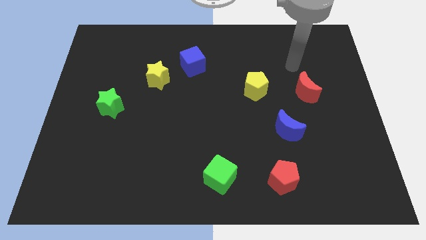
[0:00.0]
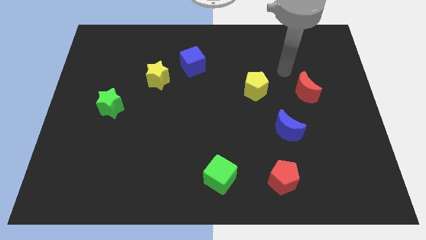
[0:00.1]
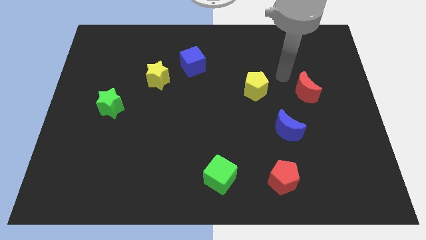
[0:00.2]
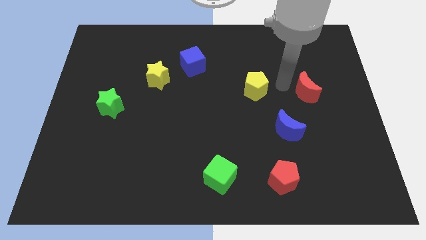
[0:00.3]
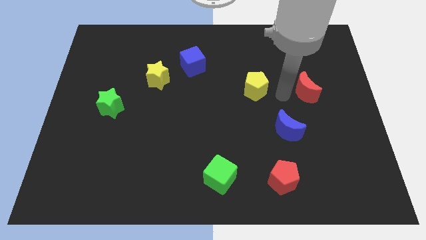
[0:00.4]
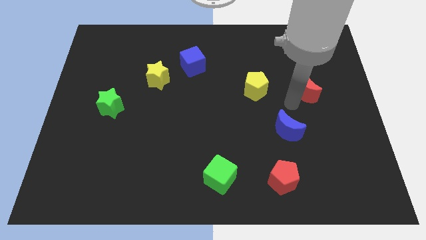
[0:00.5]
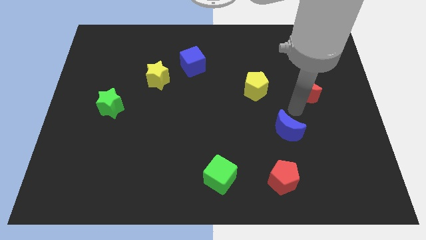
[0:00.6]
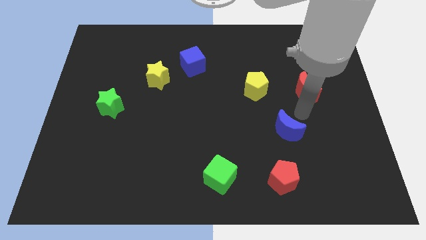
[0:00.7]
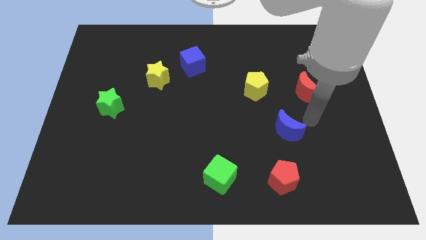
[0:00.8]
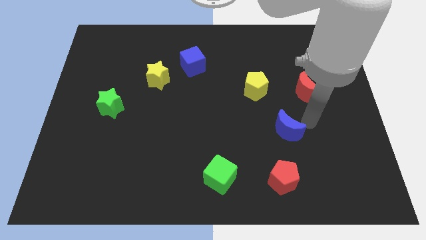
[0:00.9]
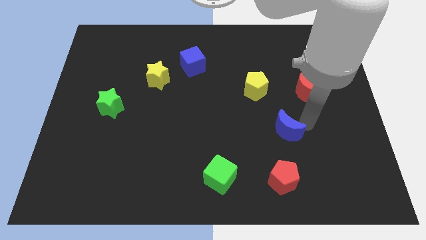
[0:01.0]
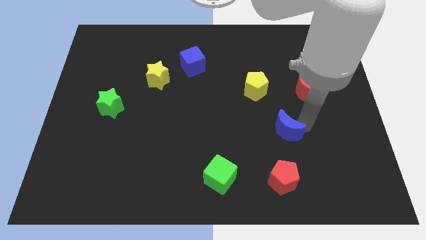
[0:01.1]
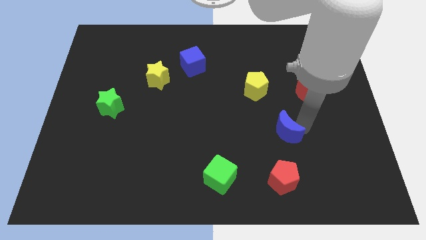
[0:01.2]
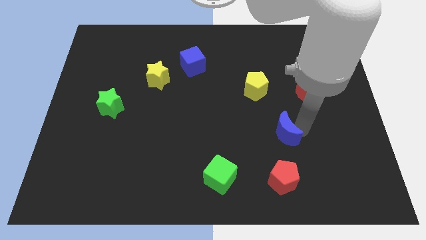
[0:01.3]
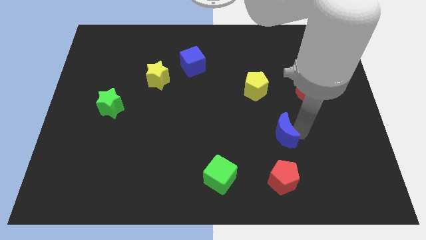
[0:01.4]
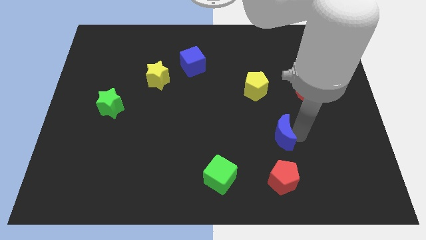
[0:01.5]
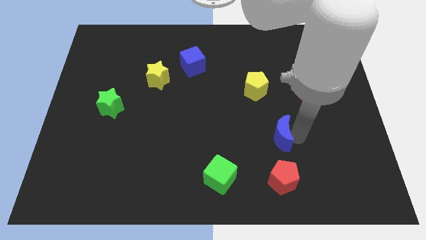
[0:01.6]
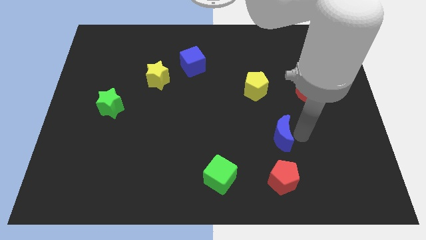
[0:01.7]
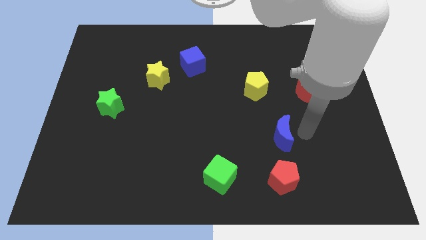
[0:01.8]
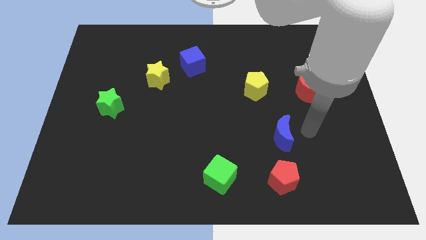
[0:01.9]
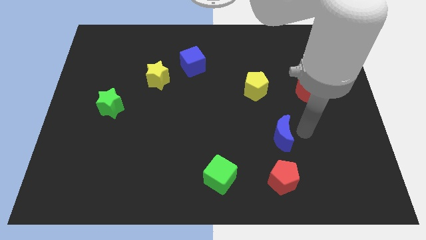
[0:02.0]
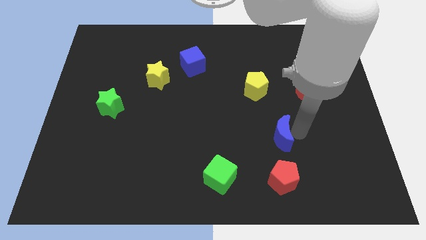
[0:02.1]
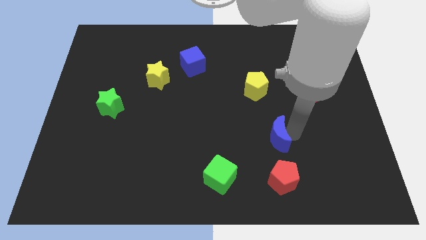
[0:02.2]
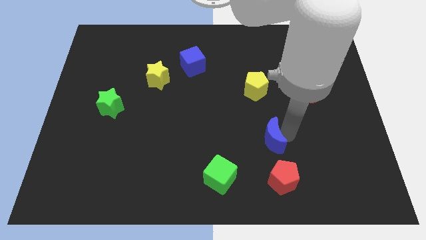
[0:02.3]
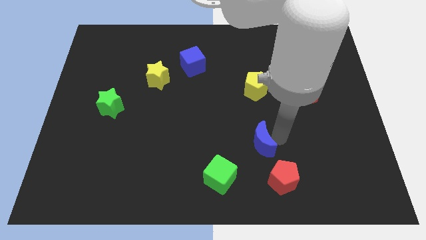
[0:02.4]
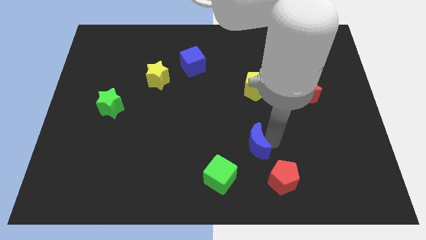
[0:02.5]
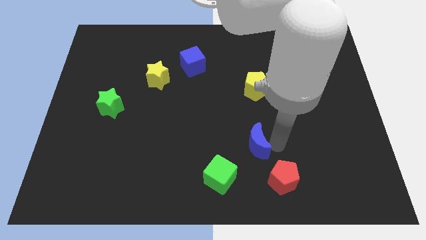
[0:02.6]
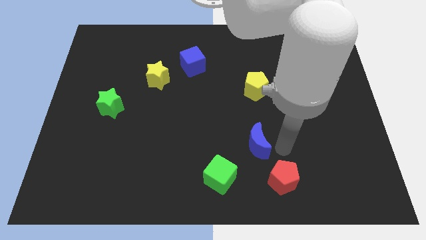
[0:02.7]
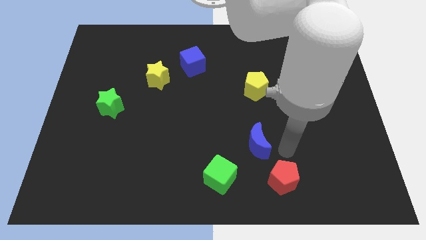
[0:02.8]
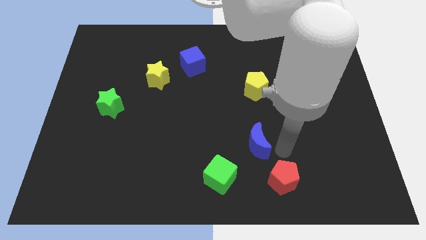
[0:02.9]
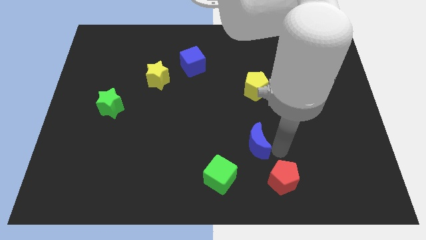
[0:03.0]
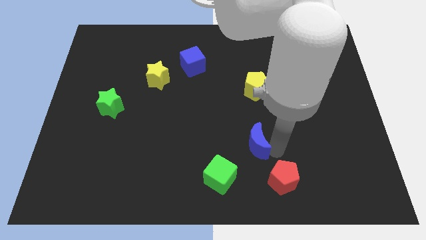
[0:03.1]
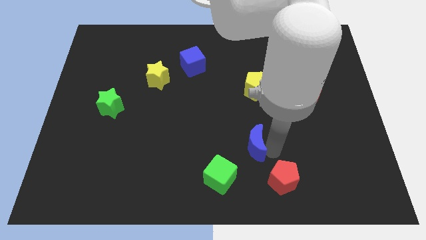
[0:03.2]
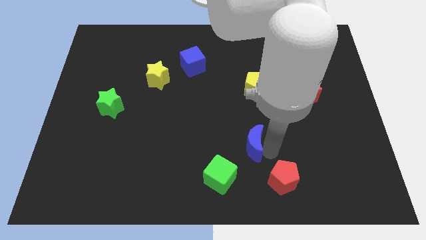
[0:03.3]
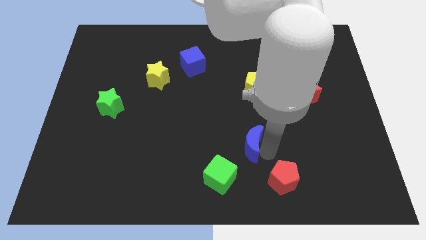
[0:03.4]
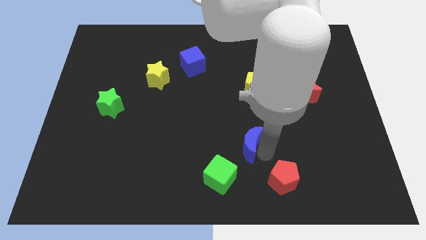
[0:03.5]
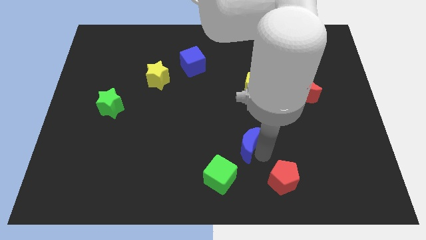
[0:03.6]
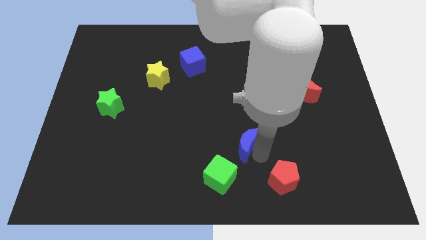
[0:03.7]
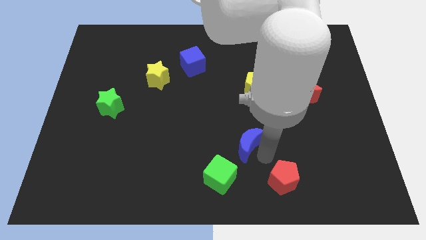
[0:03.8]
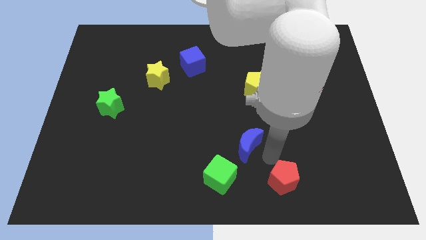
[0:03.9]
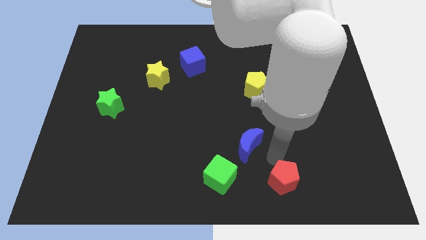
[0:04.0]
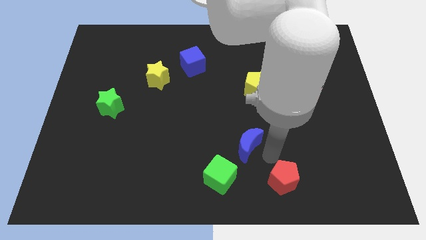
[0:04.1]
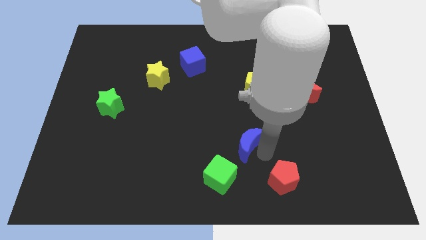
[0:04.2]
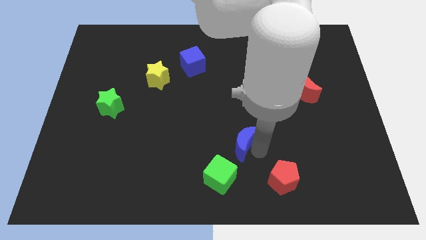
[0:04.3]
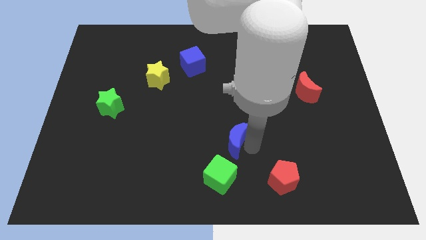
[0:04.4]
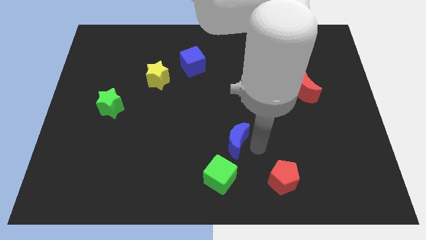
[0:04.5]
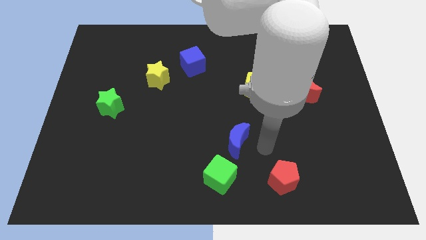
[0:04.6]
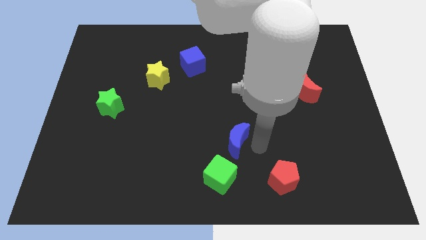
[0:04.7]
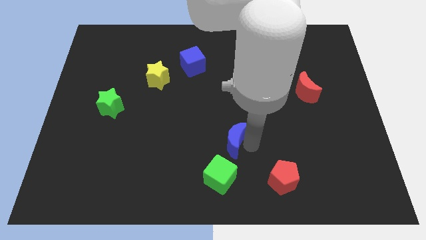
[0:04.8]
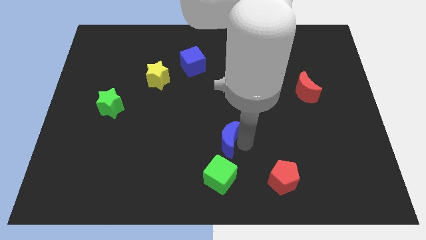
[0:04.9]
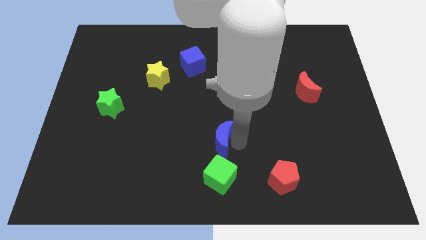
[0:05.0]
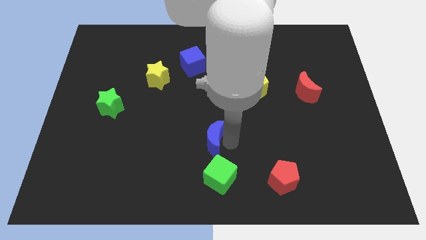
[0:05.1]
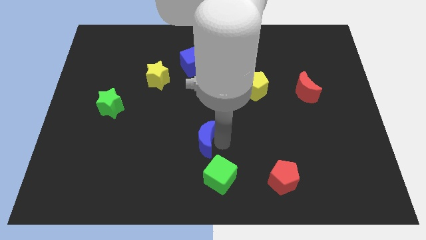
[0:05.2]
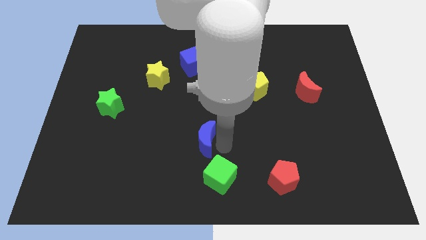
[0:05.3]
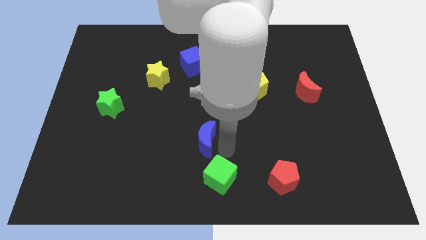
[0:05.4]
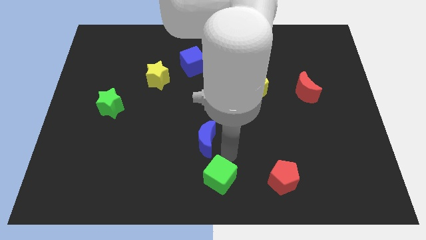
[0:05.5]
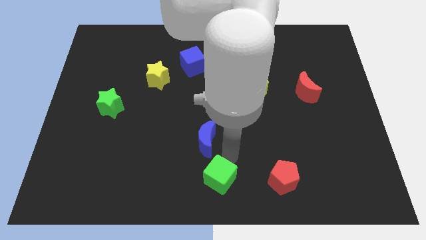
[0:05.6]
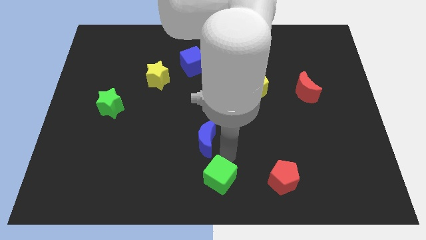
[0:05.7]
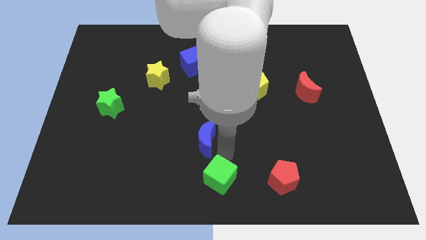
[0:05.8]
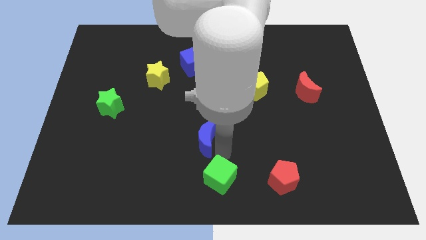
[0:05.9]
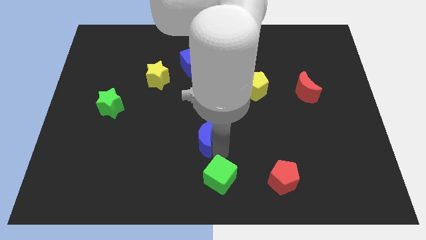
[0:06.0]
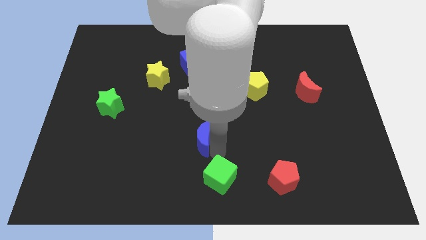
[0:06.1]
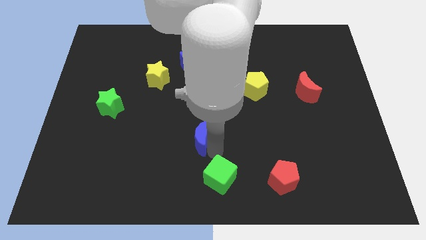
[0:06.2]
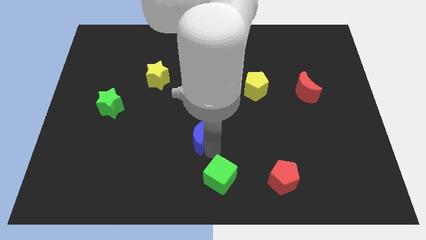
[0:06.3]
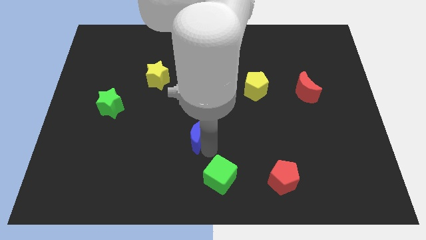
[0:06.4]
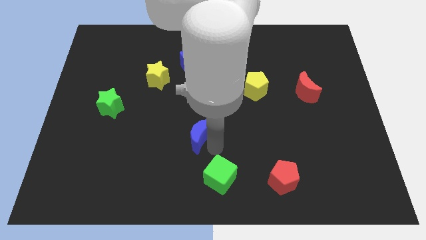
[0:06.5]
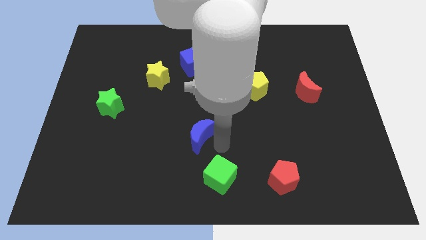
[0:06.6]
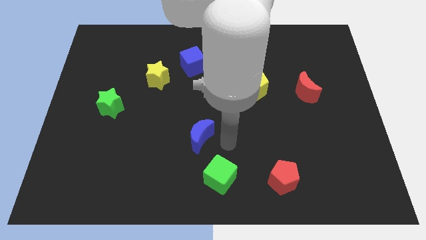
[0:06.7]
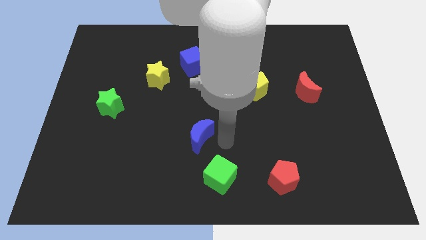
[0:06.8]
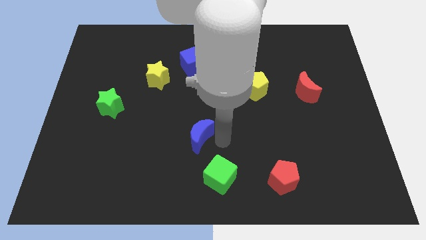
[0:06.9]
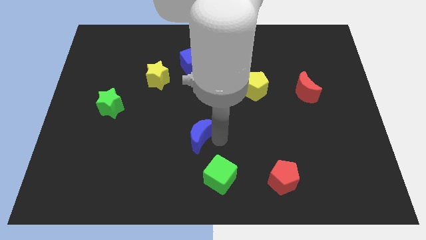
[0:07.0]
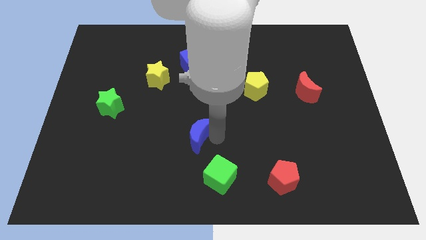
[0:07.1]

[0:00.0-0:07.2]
push the blue moon to the left

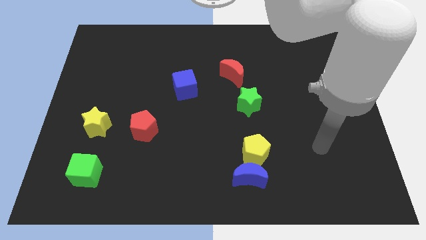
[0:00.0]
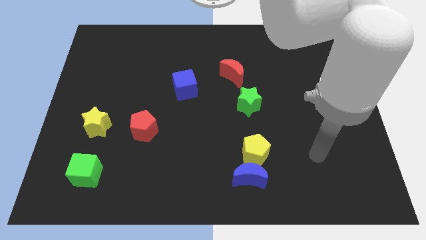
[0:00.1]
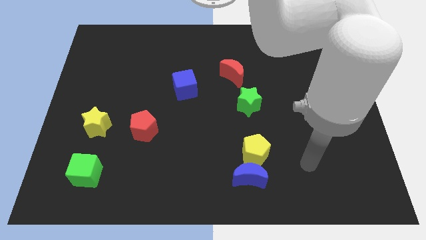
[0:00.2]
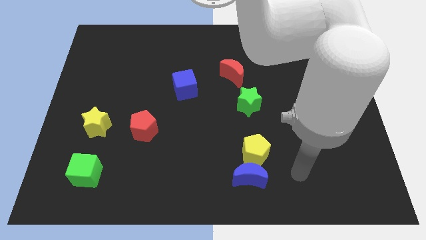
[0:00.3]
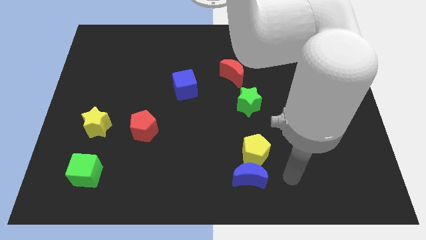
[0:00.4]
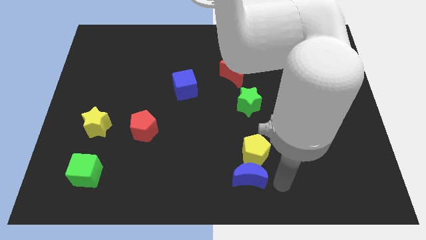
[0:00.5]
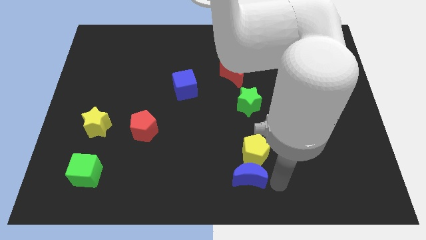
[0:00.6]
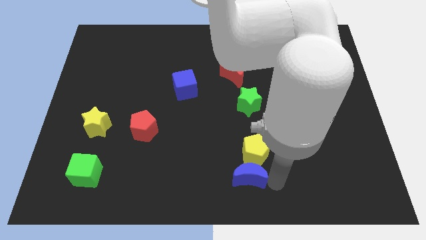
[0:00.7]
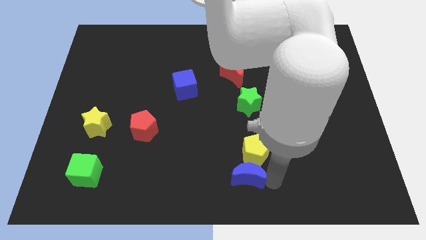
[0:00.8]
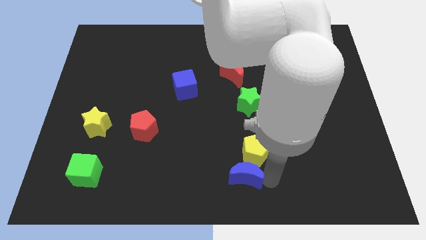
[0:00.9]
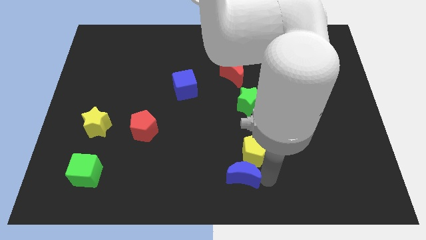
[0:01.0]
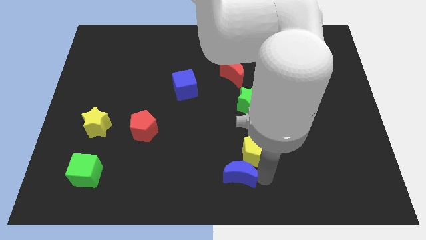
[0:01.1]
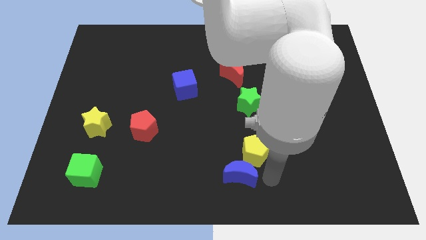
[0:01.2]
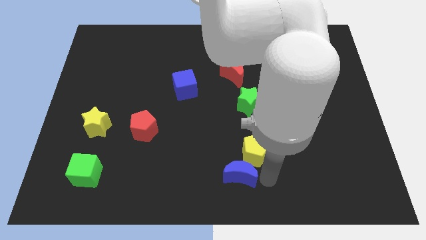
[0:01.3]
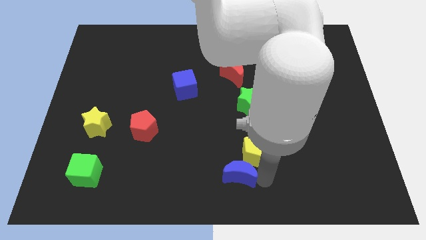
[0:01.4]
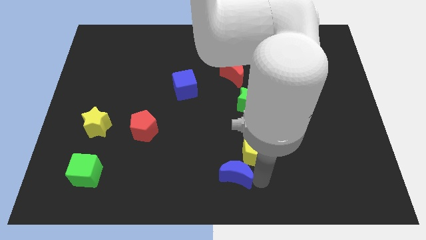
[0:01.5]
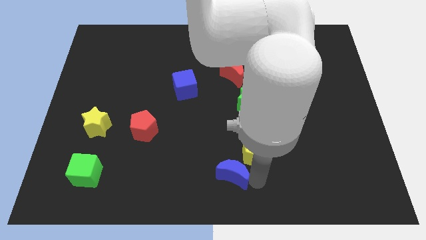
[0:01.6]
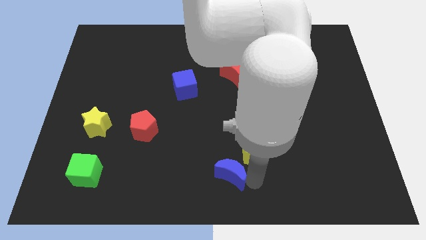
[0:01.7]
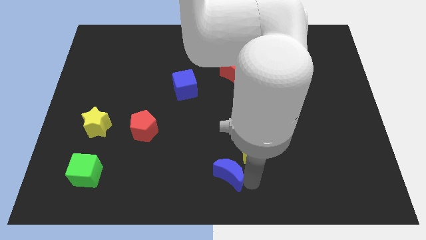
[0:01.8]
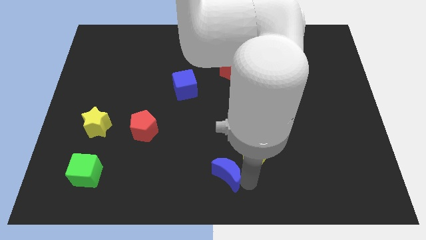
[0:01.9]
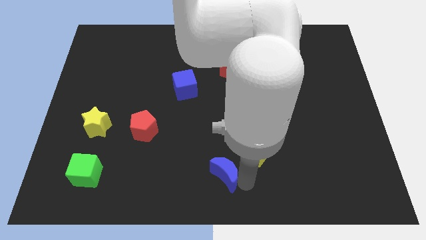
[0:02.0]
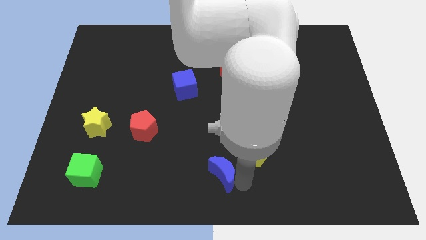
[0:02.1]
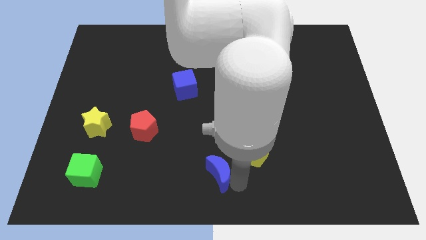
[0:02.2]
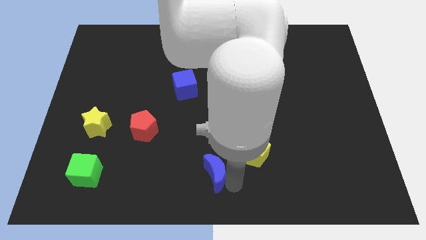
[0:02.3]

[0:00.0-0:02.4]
slightly push the blue moon left
